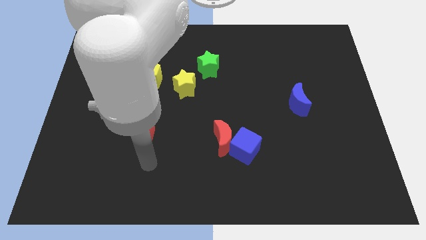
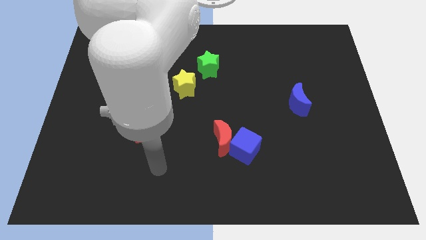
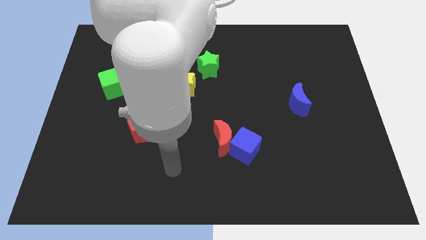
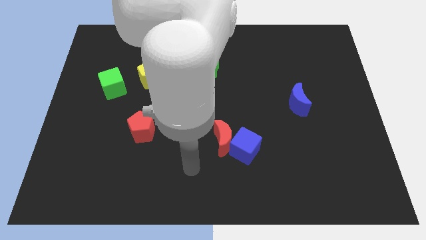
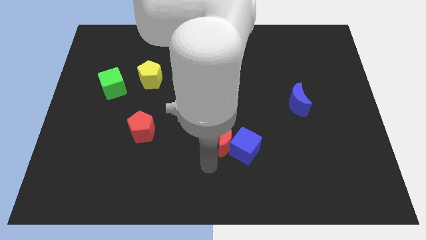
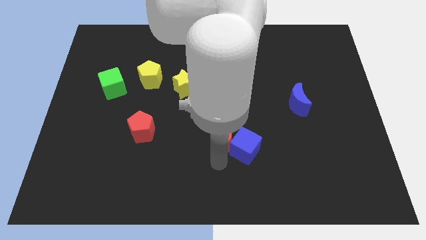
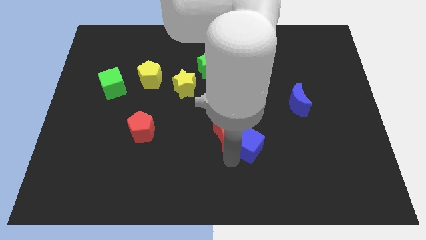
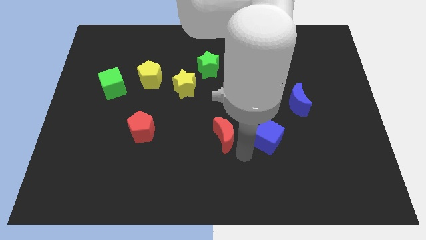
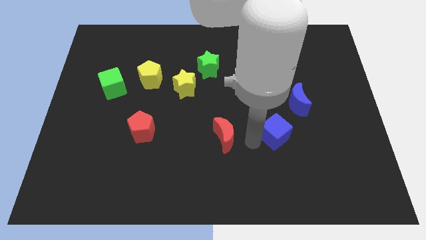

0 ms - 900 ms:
pull the red moon apart from the blue cube

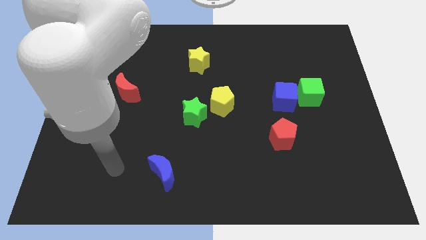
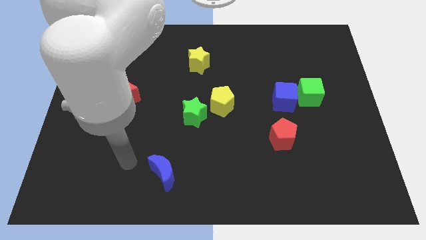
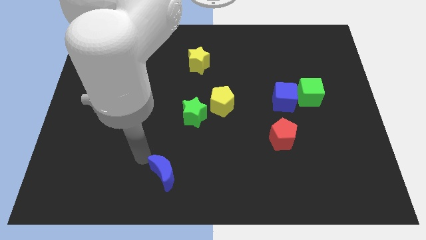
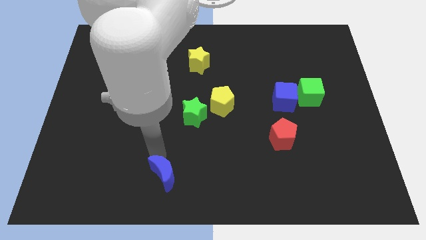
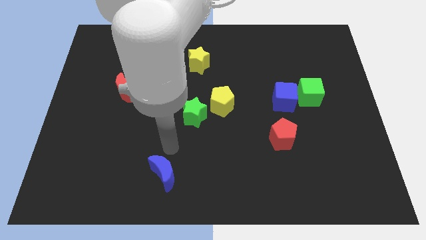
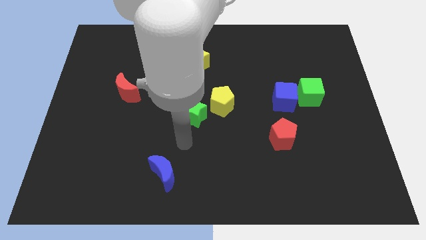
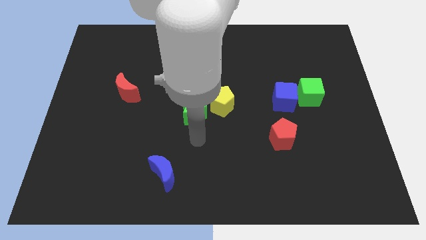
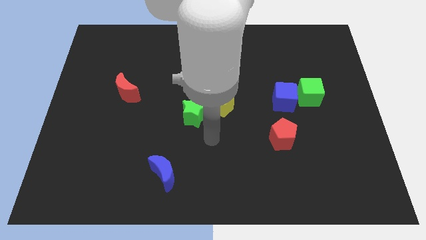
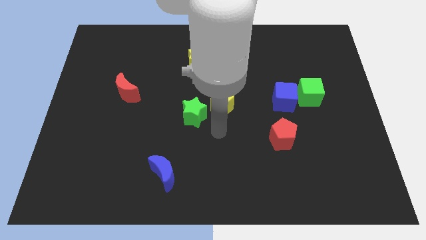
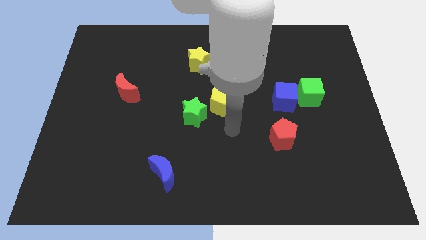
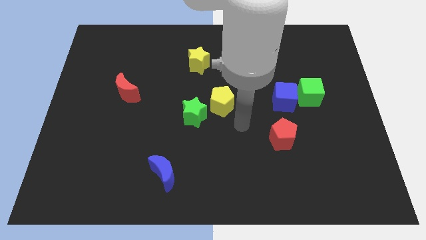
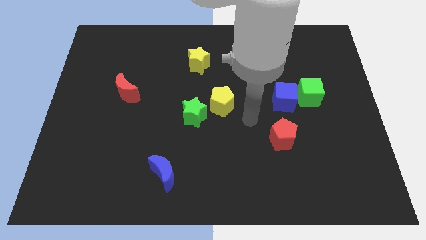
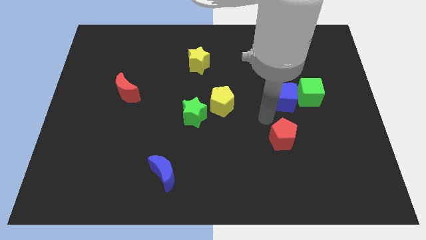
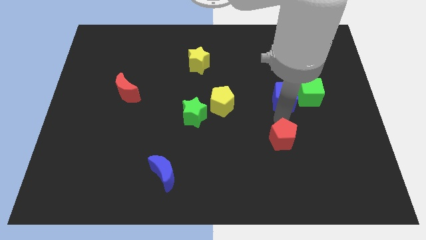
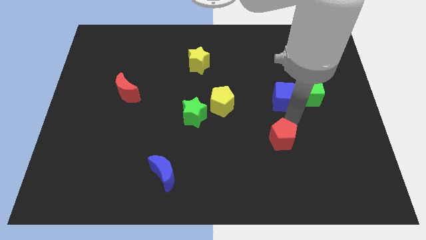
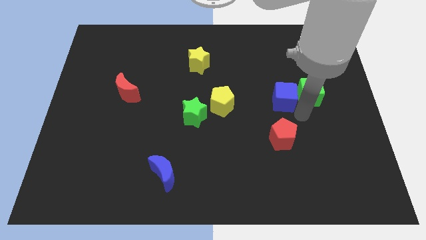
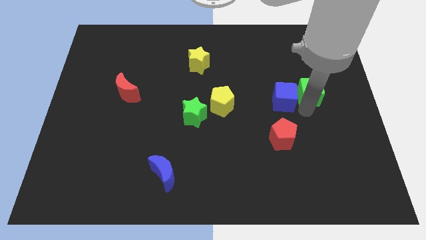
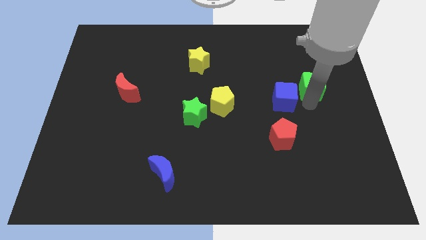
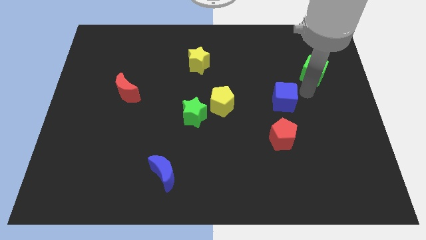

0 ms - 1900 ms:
pull the blue cube apart from the green cube

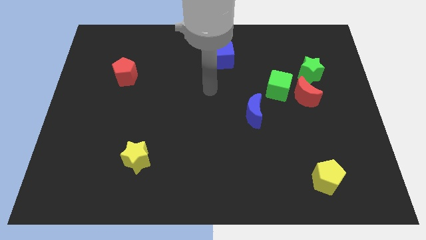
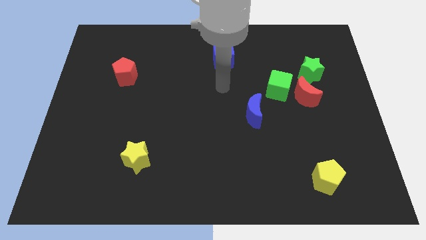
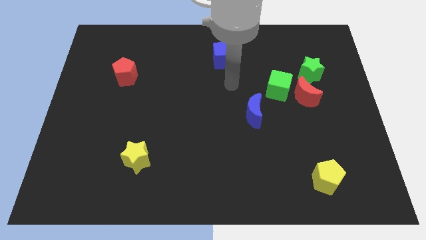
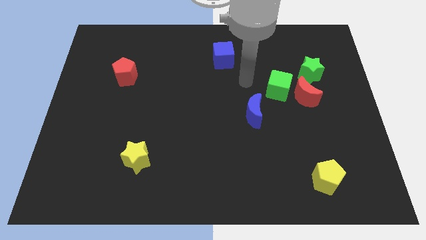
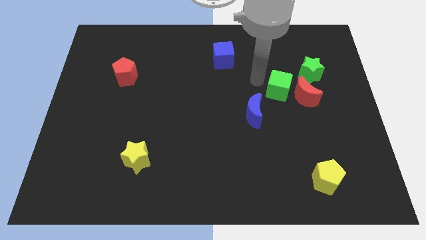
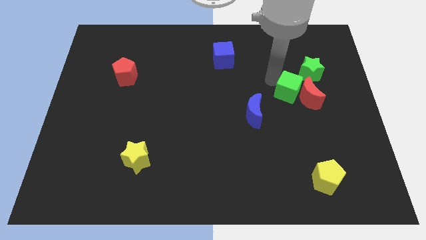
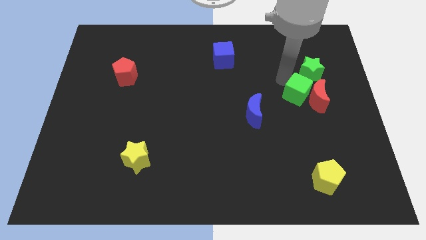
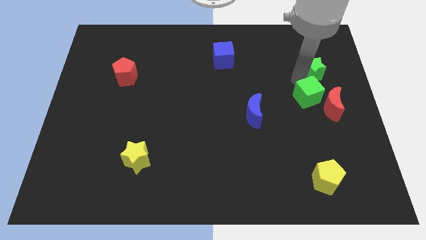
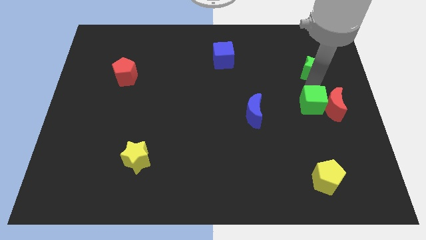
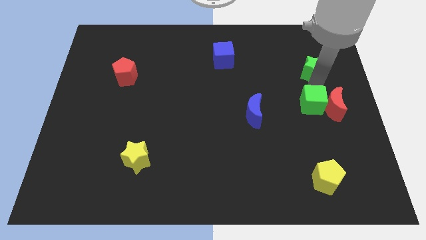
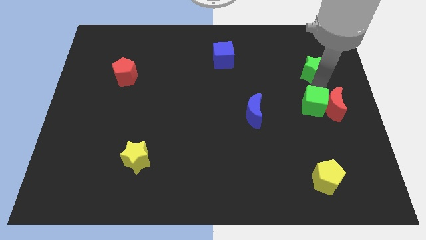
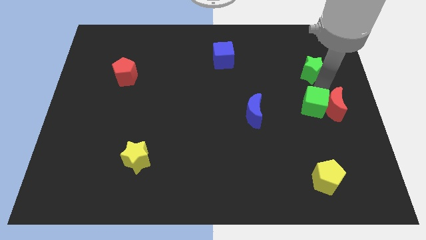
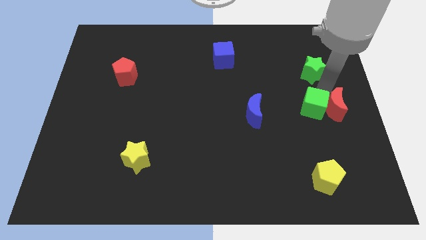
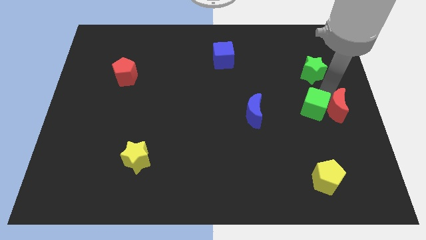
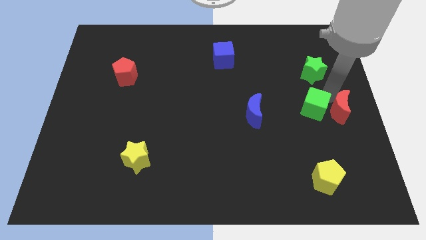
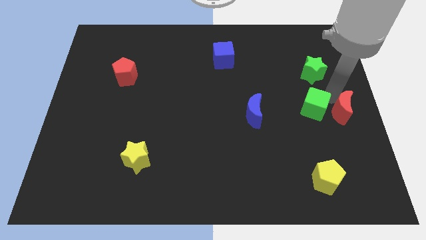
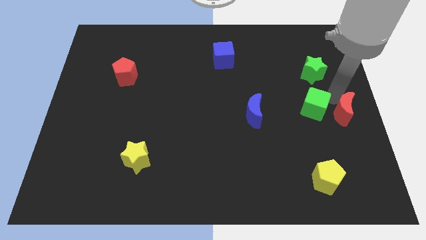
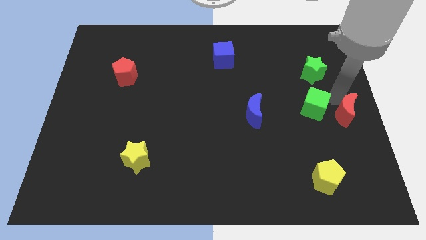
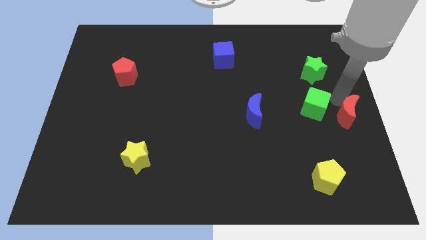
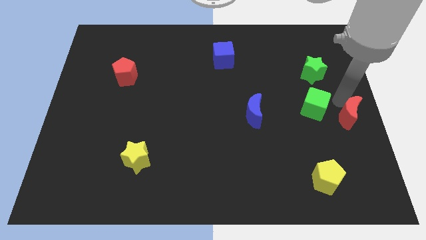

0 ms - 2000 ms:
move the red moon away from the green cube and green star

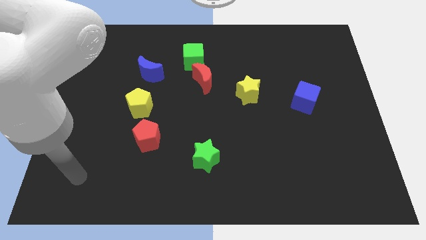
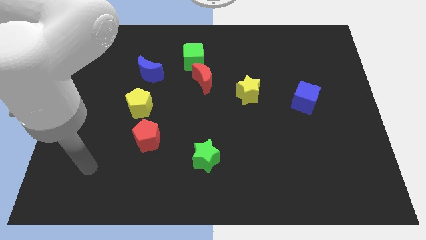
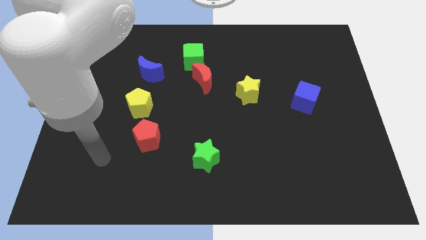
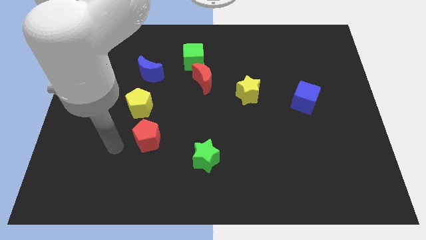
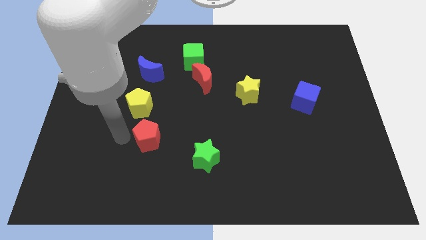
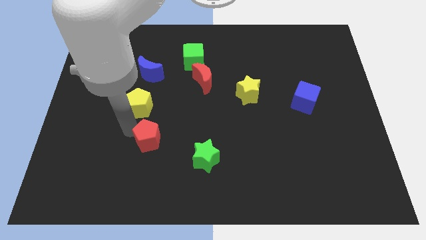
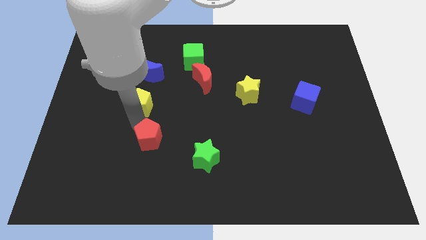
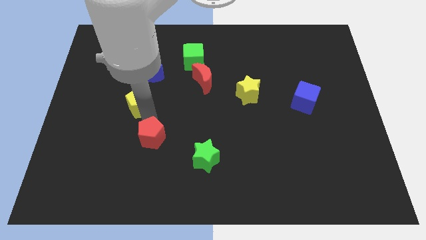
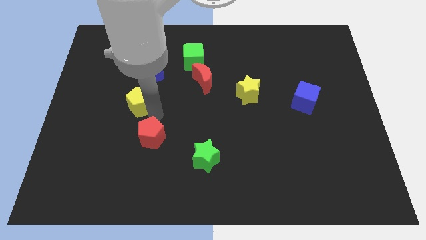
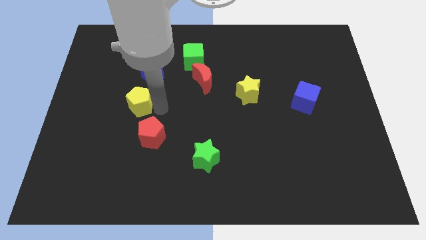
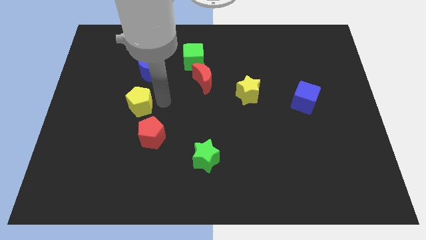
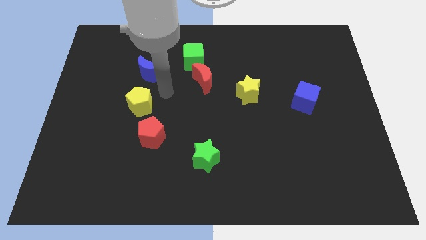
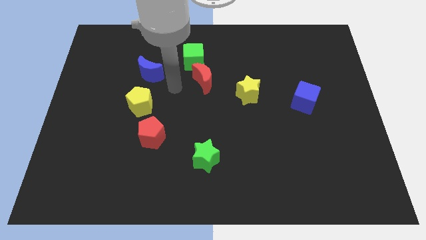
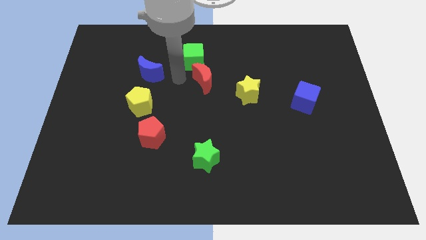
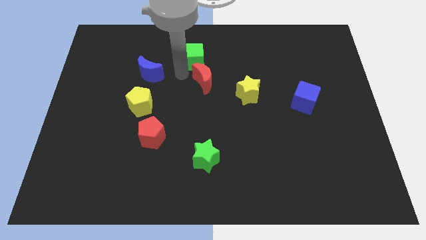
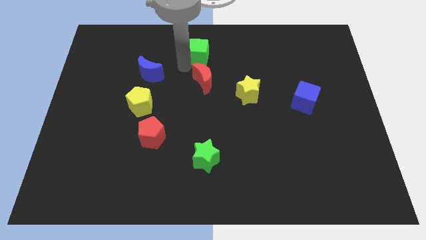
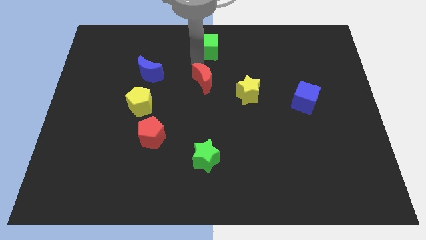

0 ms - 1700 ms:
separate the red moon from the green cube

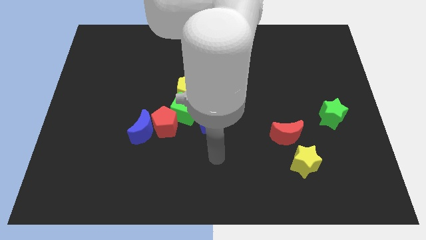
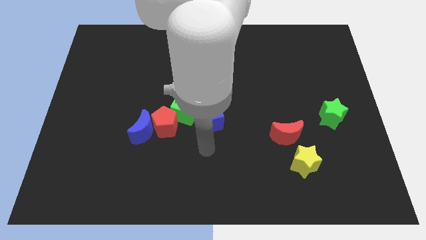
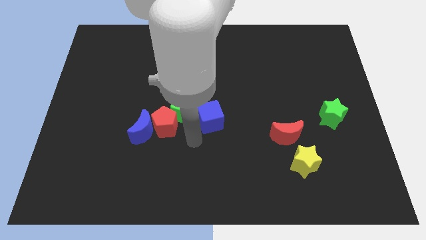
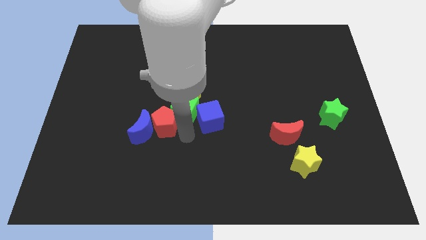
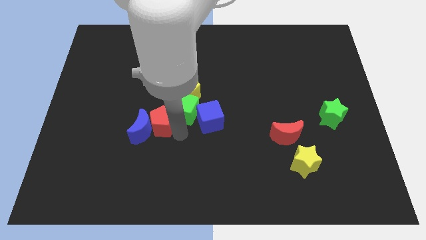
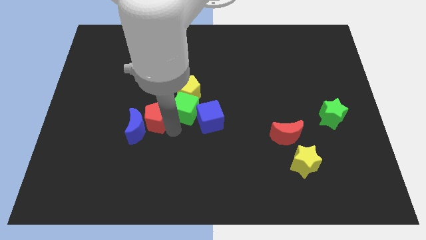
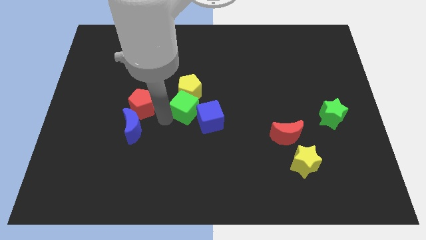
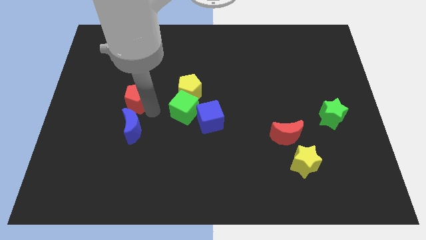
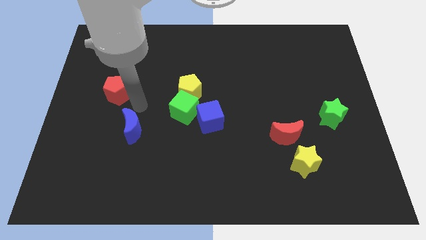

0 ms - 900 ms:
pull the blue moon apart from the red pentagon

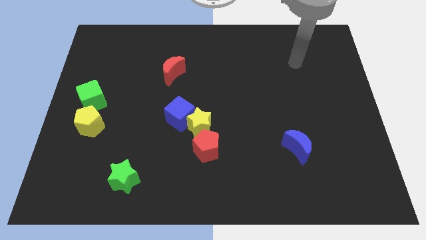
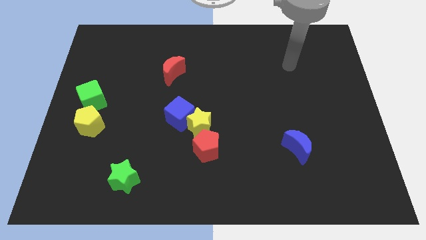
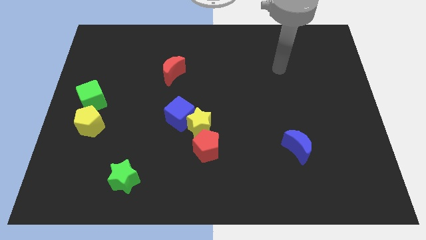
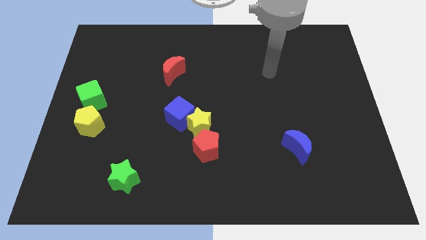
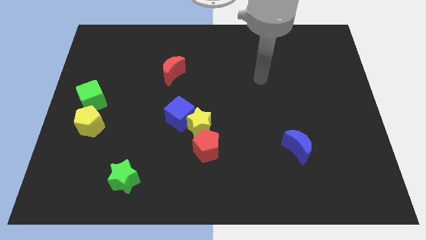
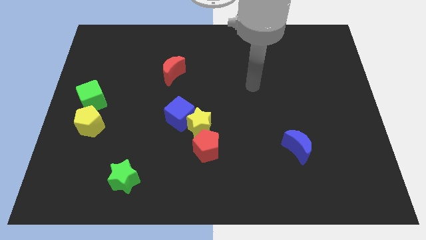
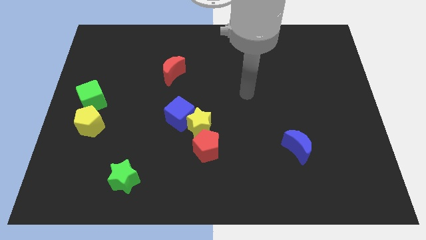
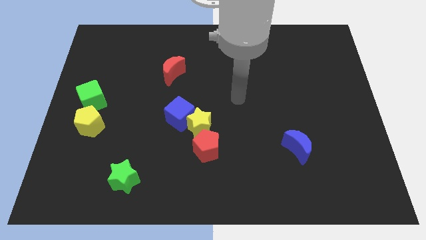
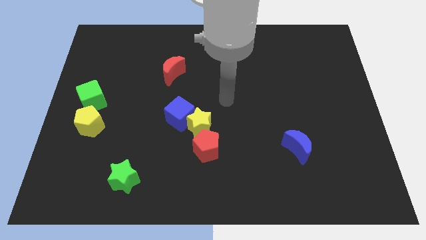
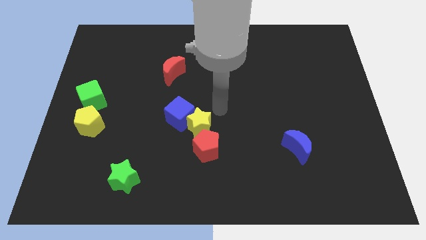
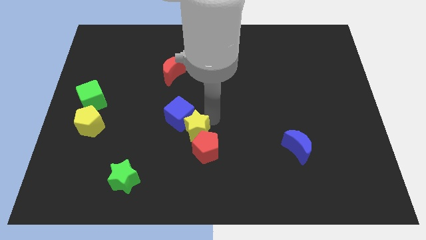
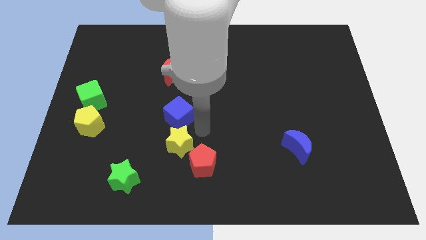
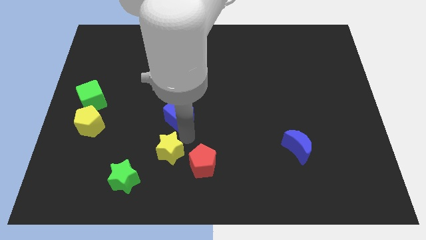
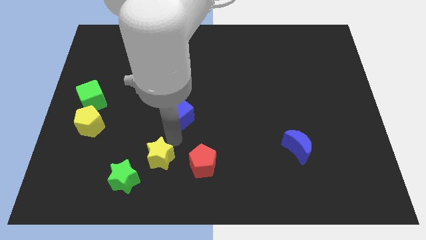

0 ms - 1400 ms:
separate the blue cube from the yellow star

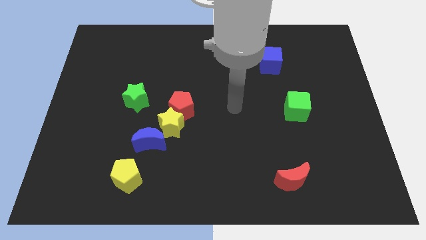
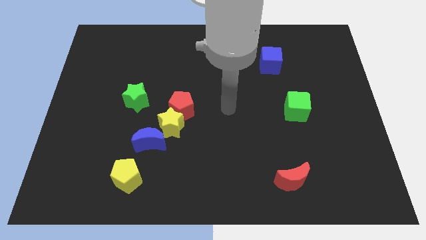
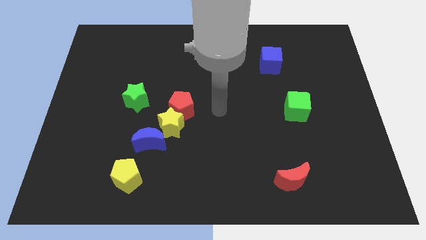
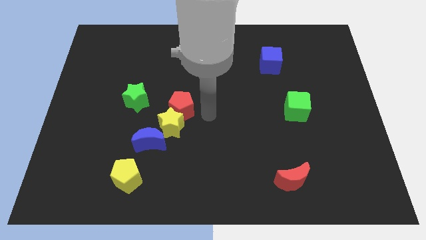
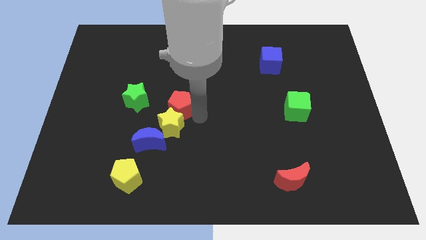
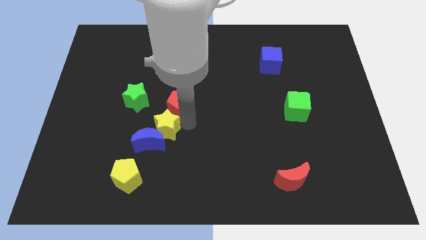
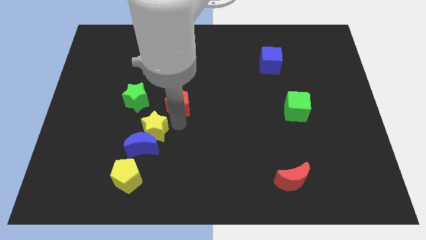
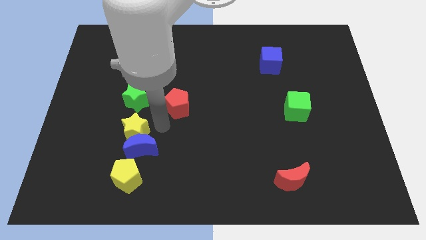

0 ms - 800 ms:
move the red pentagon away from the yellow star
